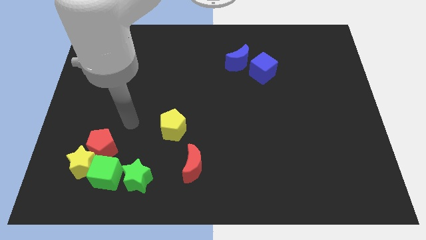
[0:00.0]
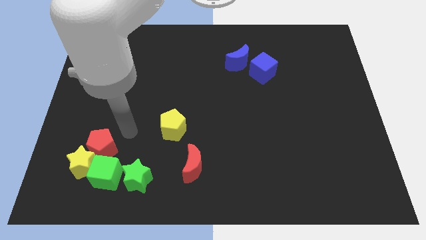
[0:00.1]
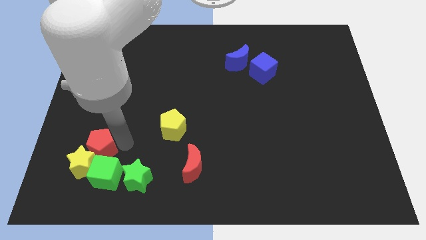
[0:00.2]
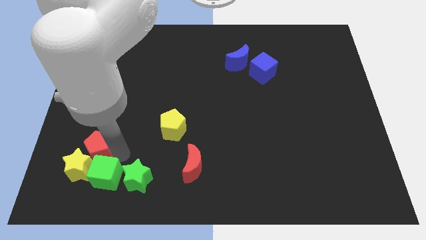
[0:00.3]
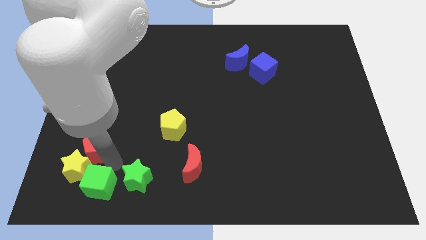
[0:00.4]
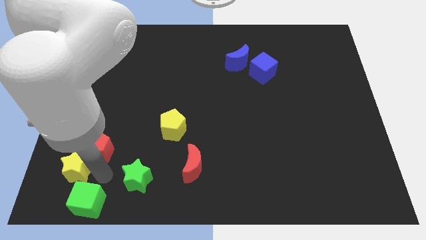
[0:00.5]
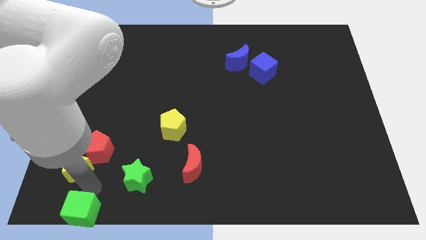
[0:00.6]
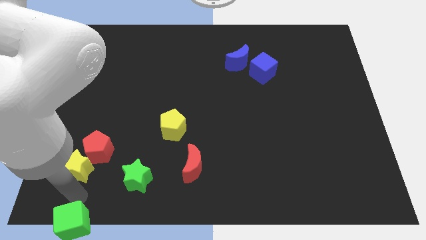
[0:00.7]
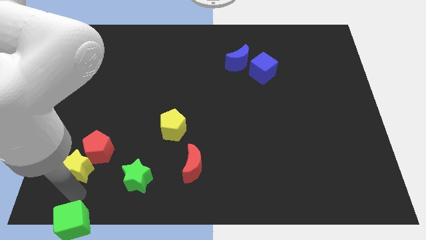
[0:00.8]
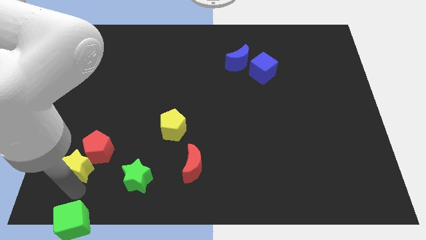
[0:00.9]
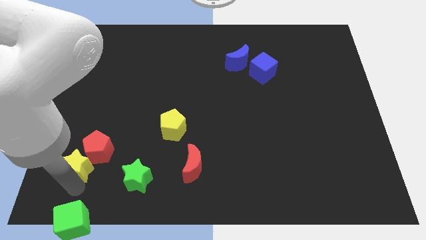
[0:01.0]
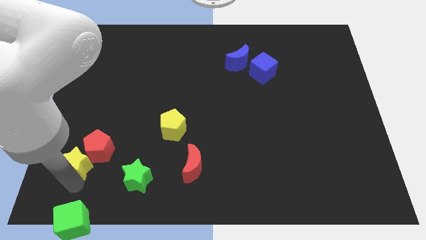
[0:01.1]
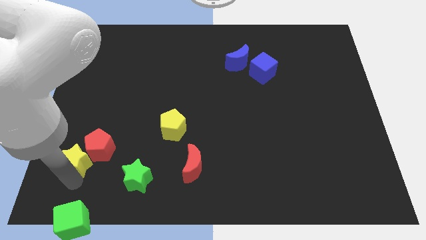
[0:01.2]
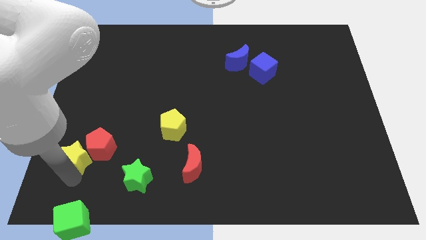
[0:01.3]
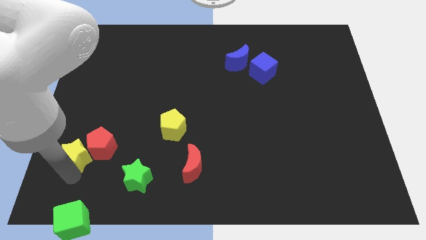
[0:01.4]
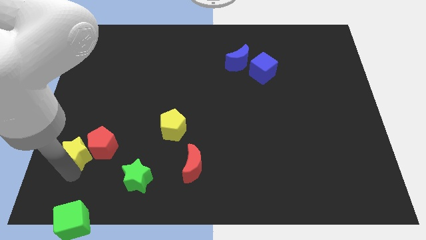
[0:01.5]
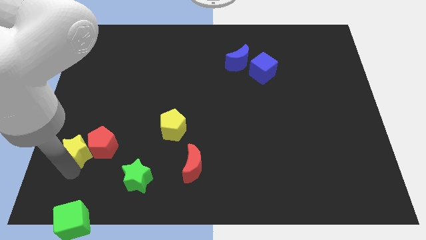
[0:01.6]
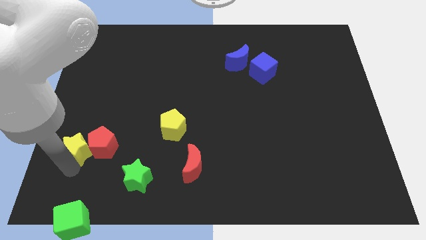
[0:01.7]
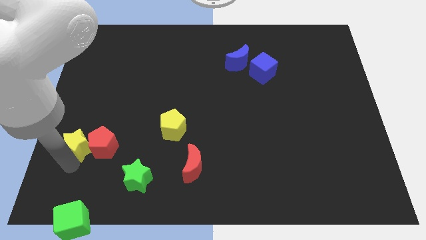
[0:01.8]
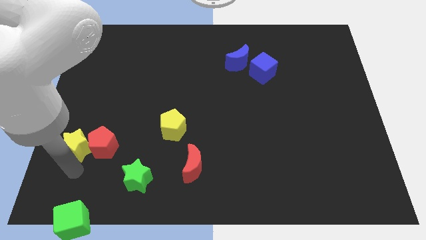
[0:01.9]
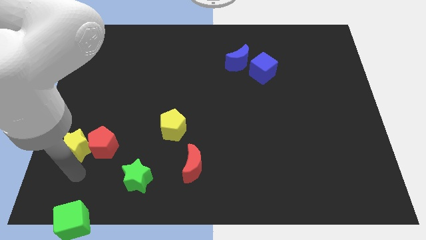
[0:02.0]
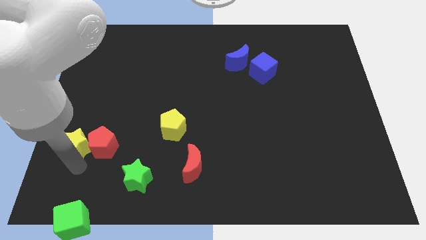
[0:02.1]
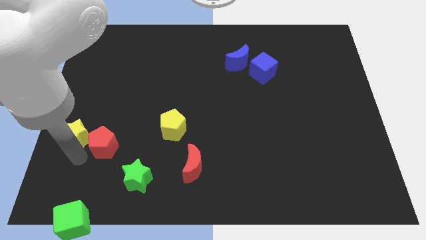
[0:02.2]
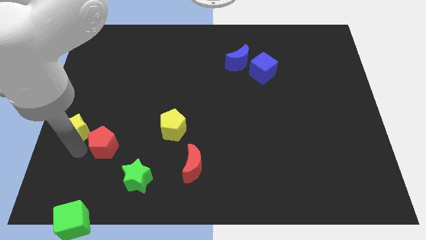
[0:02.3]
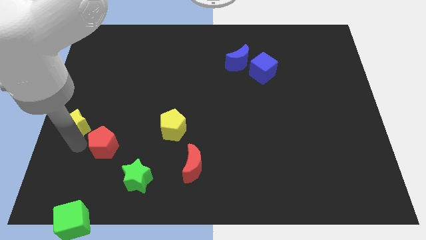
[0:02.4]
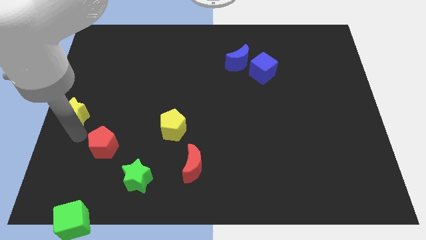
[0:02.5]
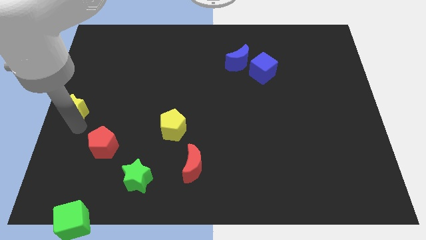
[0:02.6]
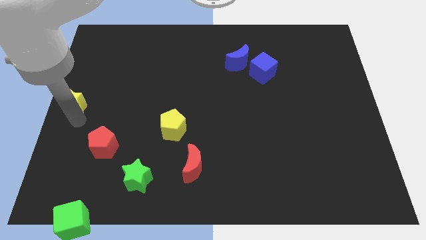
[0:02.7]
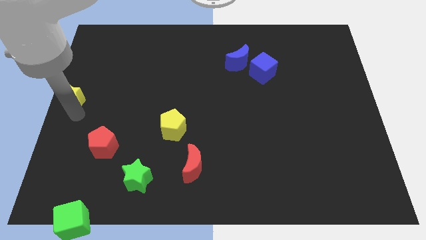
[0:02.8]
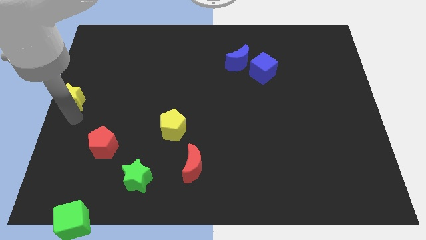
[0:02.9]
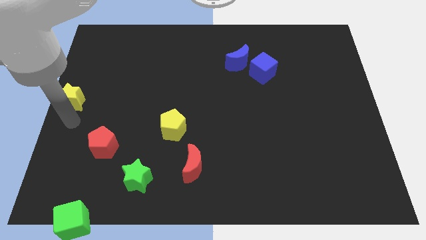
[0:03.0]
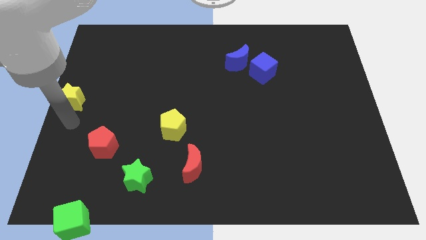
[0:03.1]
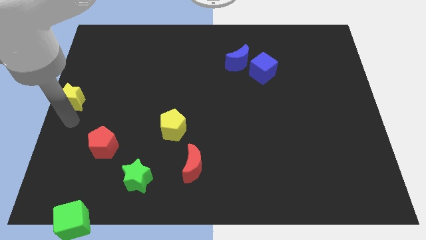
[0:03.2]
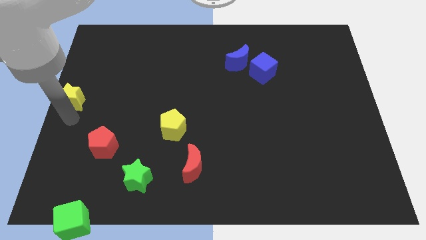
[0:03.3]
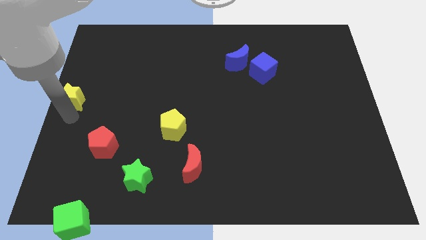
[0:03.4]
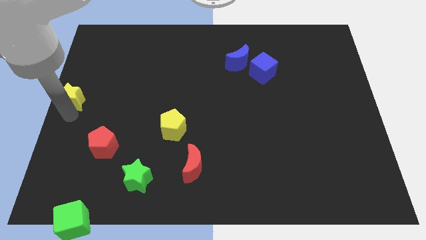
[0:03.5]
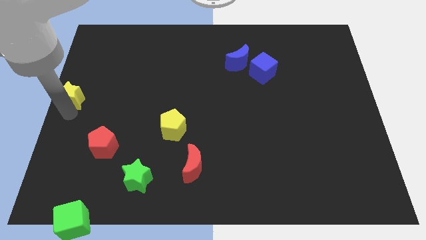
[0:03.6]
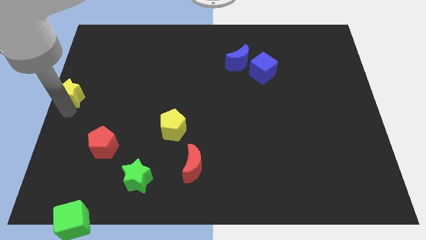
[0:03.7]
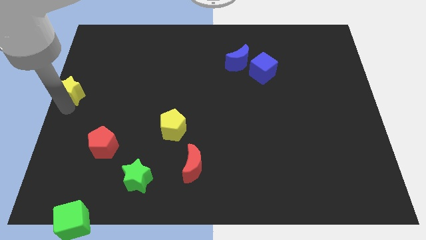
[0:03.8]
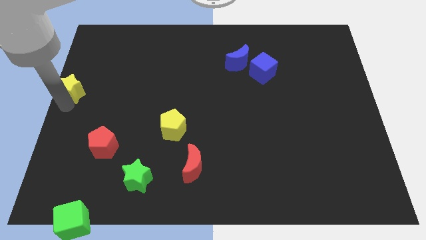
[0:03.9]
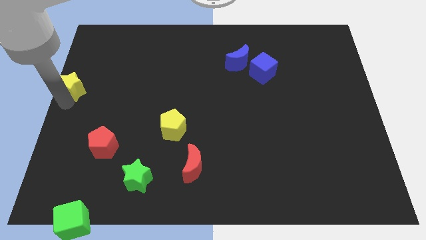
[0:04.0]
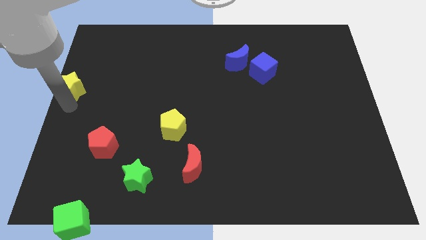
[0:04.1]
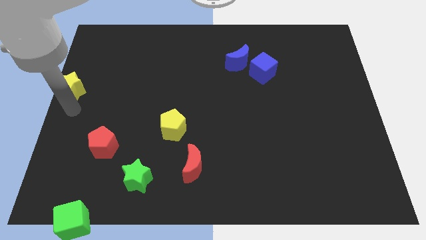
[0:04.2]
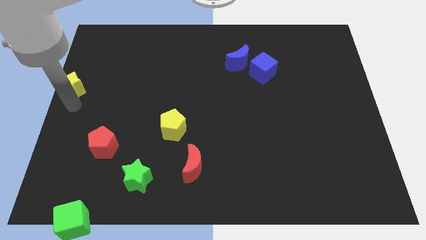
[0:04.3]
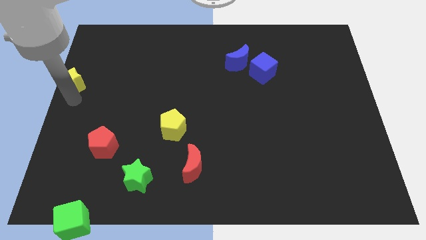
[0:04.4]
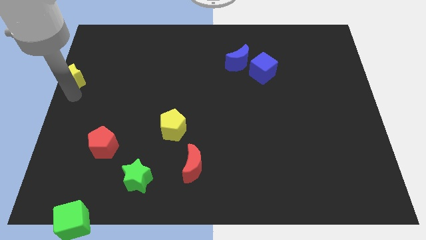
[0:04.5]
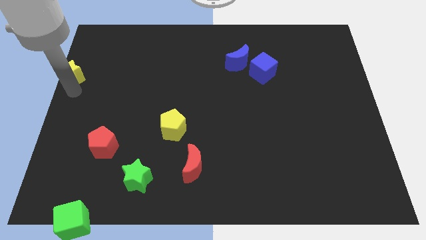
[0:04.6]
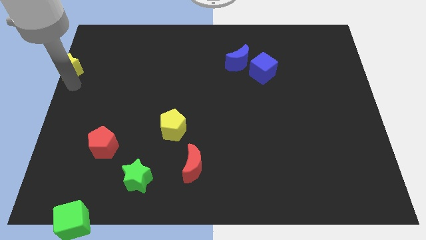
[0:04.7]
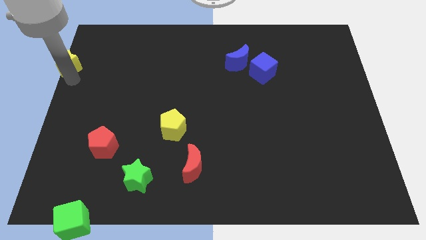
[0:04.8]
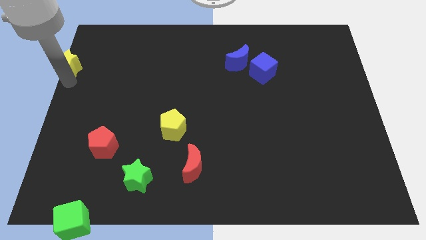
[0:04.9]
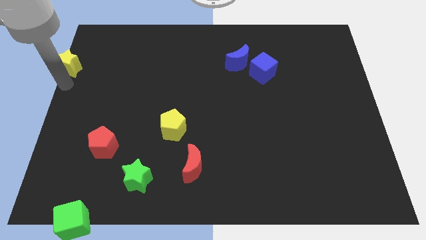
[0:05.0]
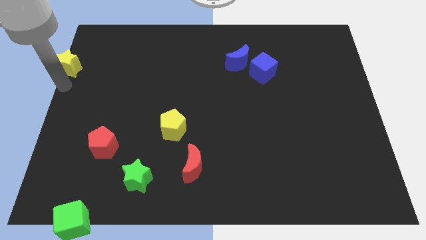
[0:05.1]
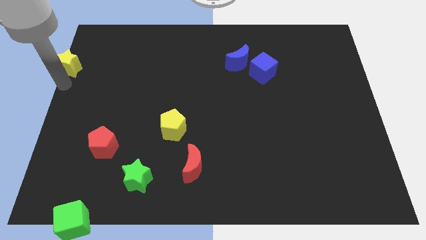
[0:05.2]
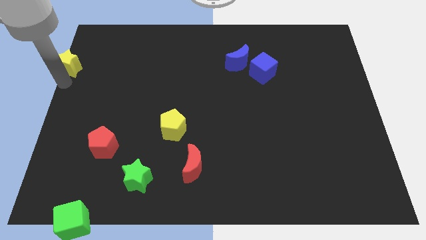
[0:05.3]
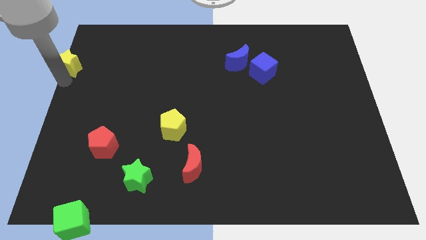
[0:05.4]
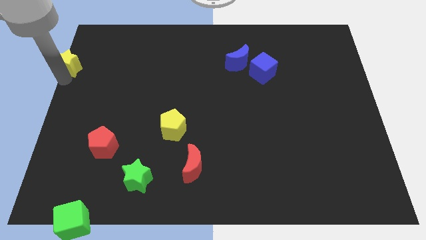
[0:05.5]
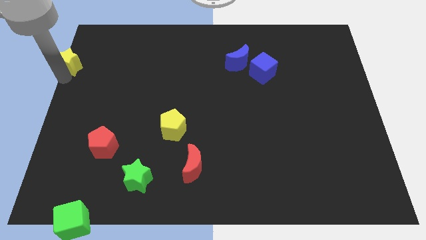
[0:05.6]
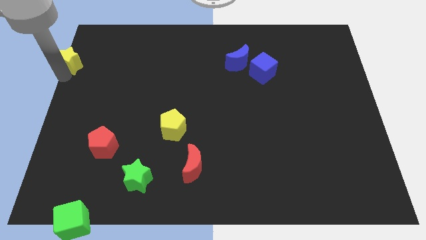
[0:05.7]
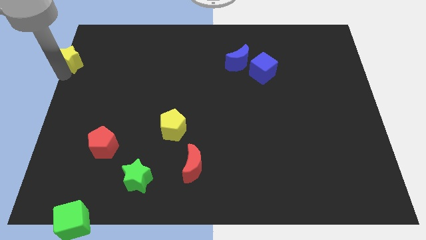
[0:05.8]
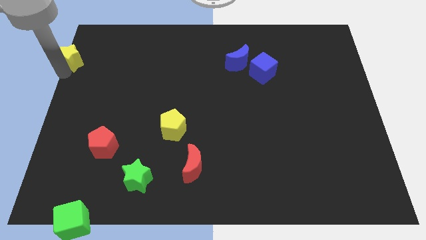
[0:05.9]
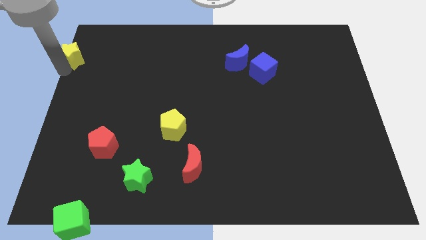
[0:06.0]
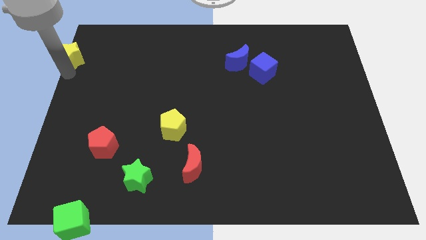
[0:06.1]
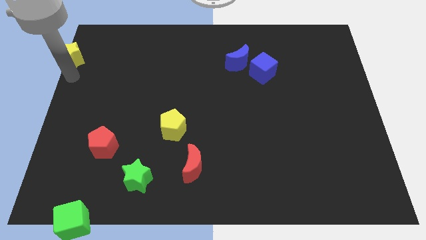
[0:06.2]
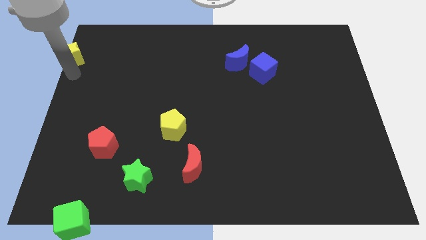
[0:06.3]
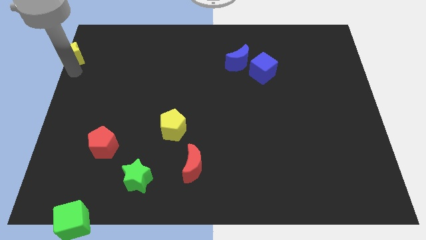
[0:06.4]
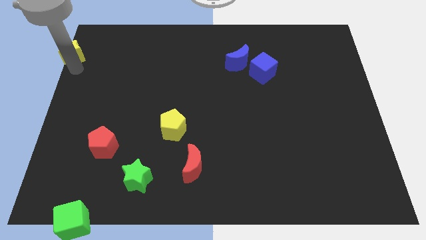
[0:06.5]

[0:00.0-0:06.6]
put the yellow star to the top left of the board
